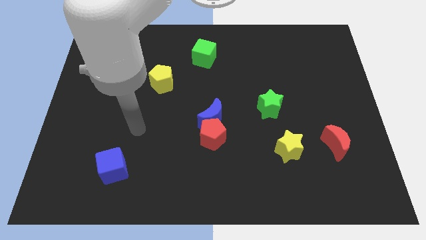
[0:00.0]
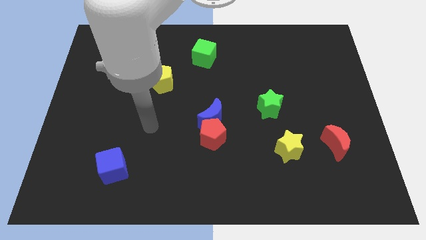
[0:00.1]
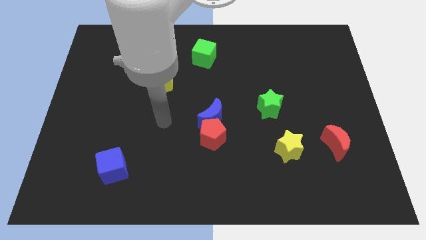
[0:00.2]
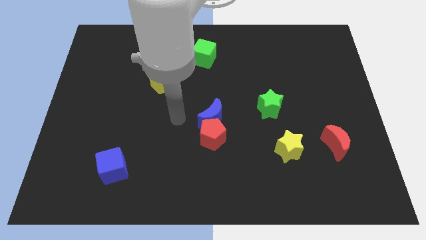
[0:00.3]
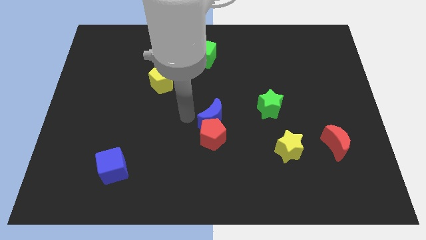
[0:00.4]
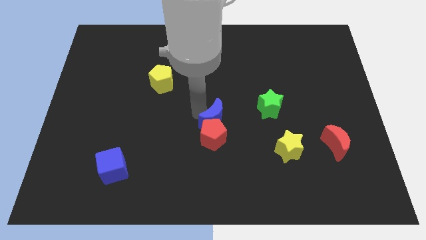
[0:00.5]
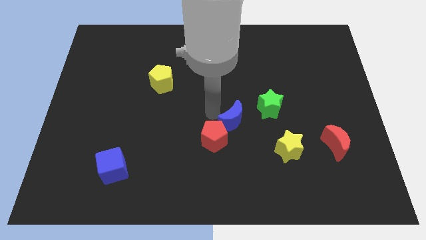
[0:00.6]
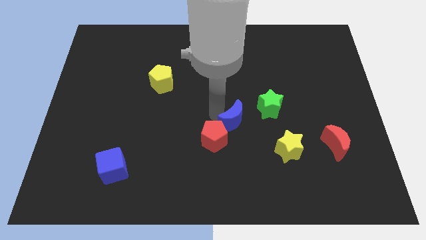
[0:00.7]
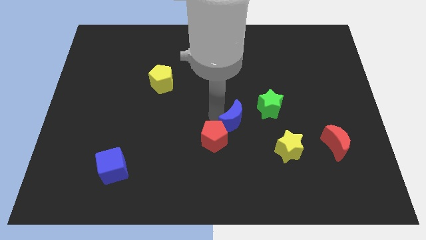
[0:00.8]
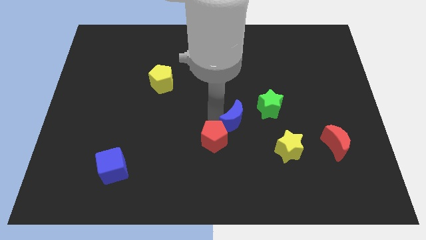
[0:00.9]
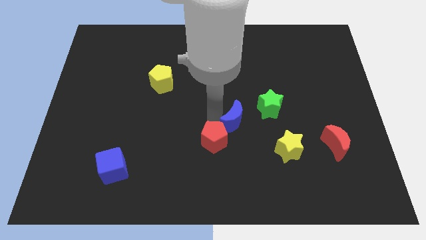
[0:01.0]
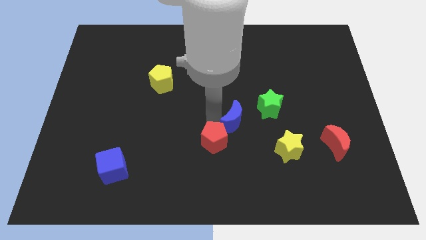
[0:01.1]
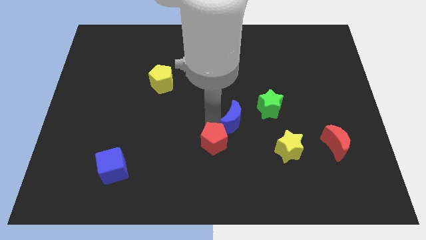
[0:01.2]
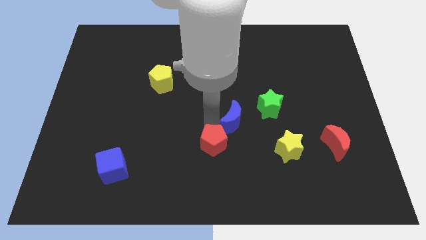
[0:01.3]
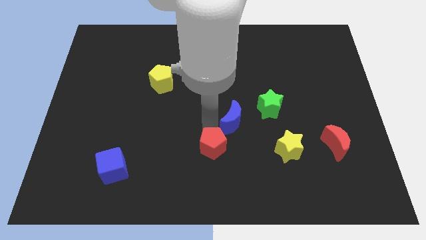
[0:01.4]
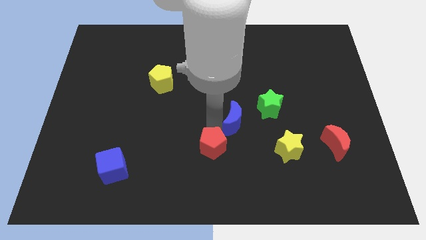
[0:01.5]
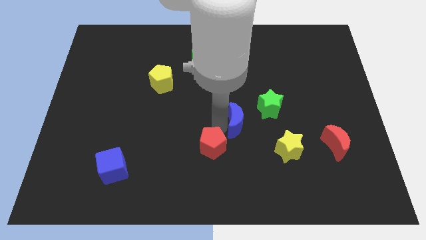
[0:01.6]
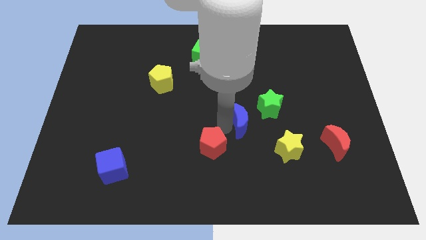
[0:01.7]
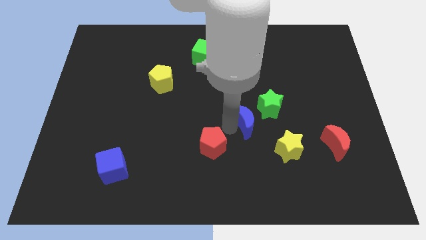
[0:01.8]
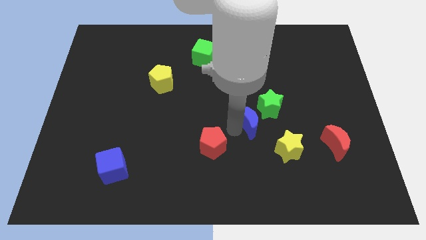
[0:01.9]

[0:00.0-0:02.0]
move the red pentagon away from the blue moon

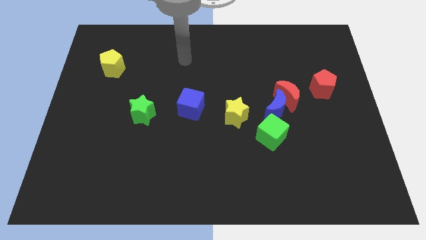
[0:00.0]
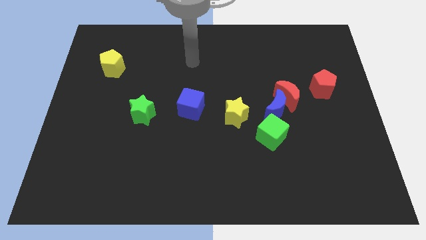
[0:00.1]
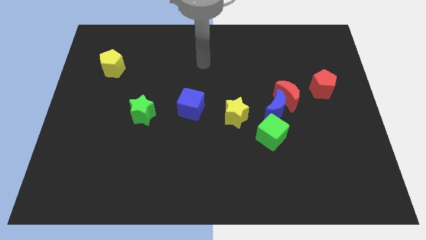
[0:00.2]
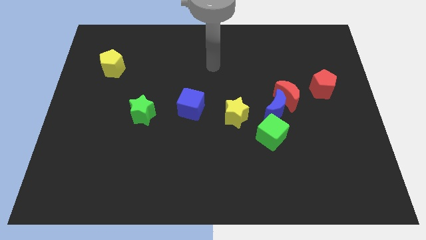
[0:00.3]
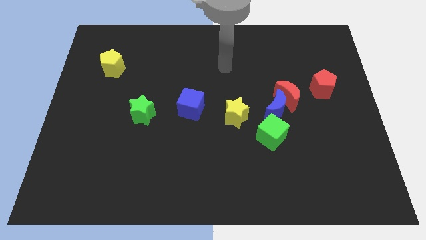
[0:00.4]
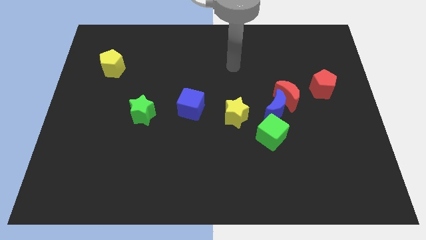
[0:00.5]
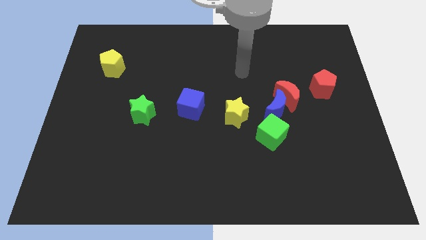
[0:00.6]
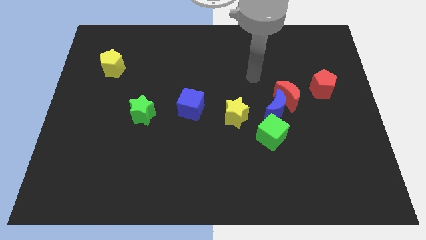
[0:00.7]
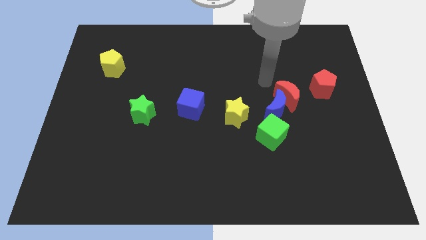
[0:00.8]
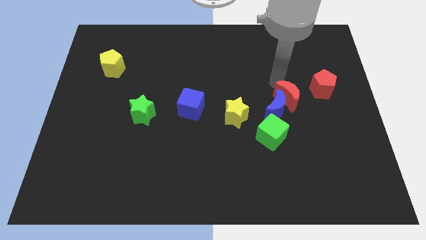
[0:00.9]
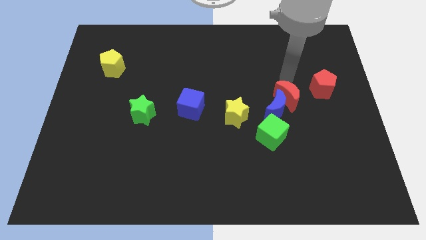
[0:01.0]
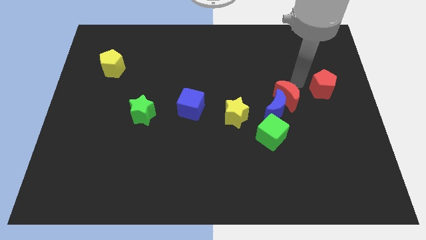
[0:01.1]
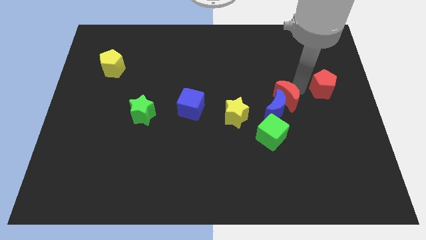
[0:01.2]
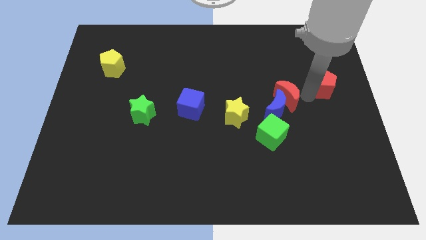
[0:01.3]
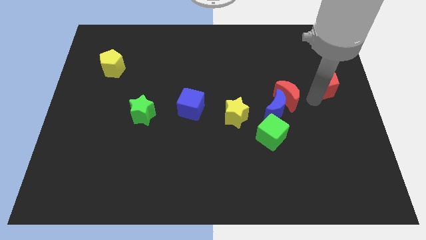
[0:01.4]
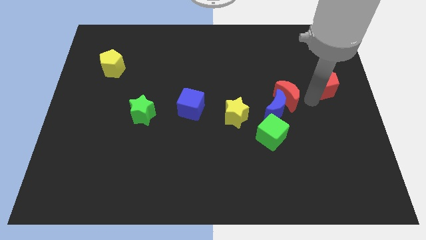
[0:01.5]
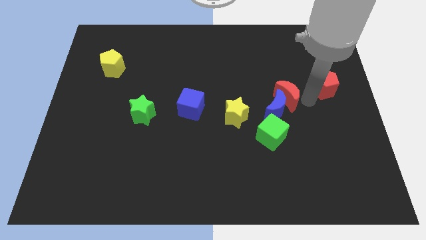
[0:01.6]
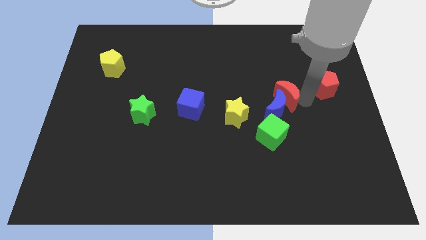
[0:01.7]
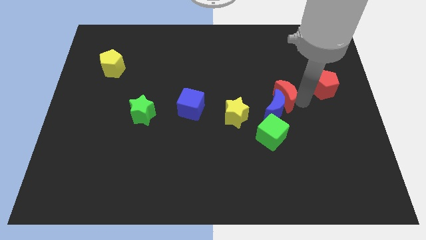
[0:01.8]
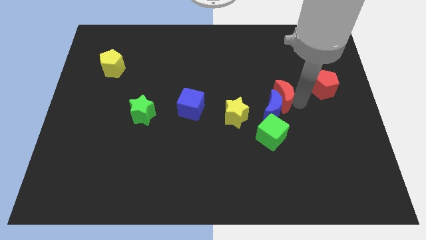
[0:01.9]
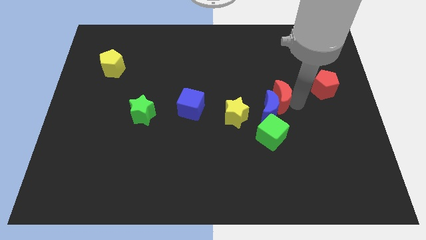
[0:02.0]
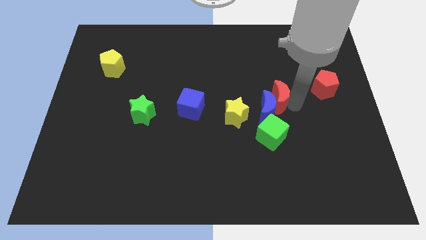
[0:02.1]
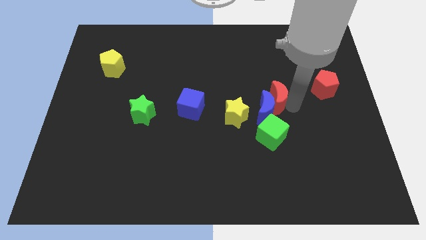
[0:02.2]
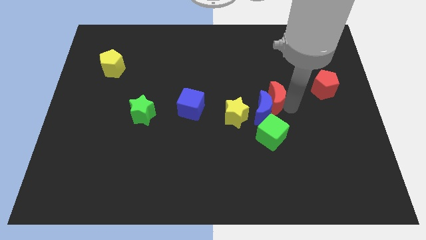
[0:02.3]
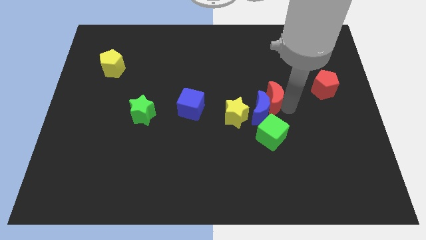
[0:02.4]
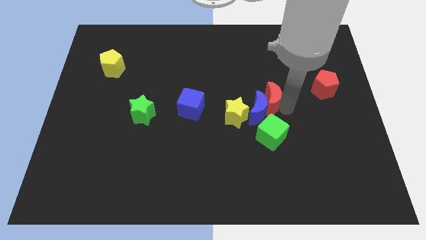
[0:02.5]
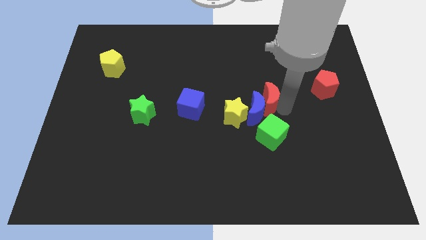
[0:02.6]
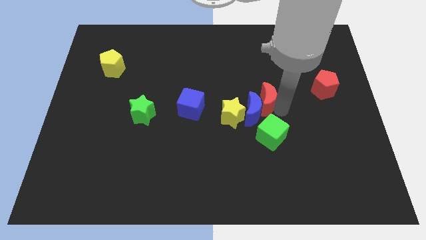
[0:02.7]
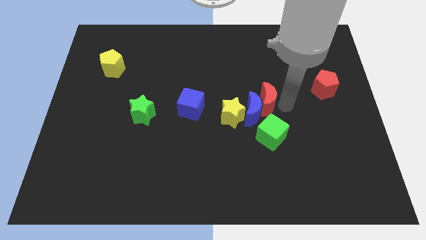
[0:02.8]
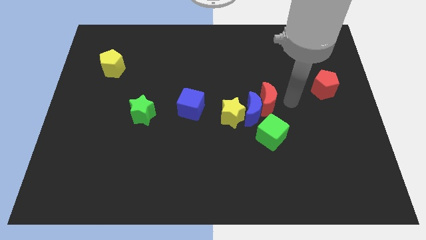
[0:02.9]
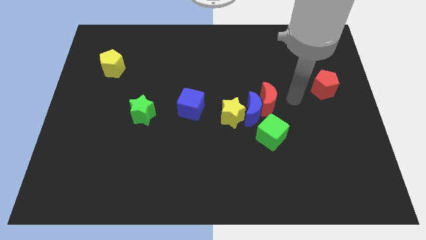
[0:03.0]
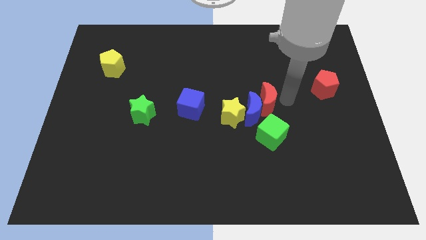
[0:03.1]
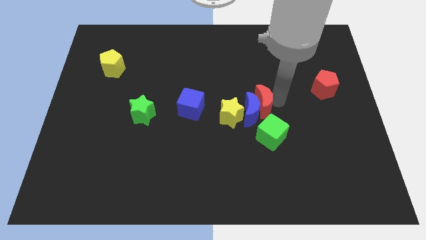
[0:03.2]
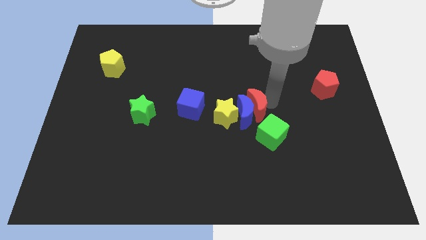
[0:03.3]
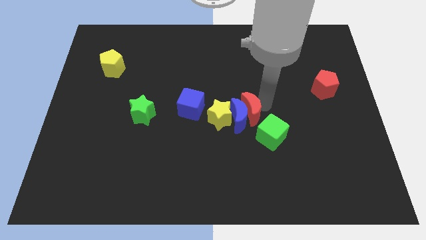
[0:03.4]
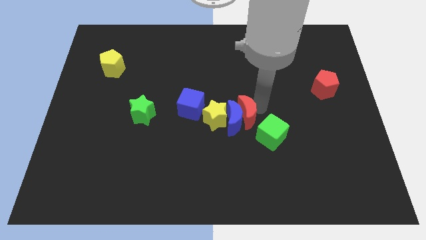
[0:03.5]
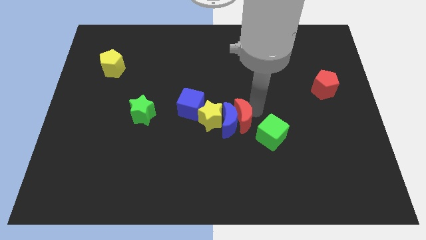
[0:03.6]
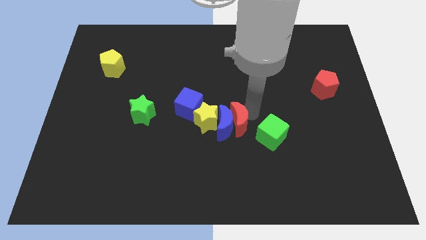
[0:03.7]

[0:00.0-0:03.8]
move the red moon away from the blue moon and red pentagon

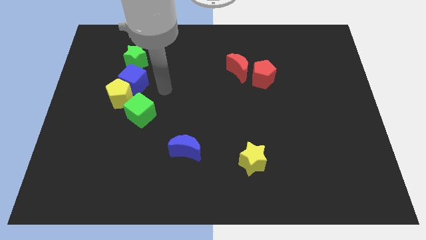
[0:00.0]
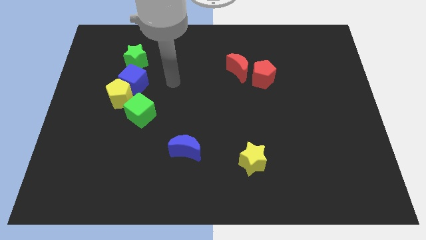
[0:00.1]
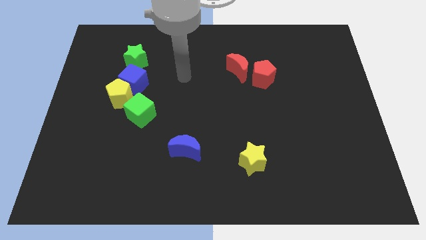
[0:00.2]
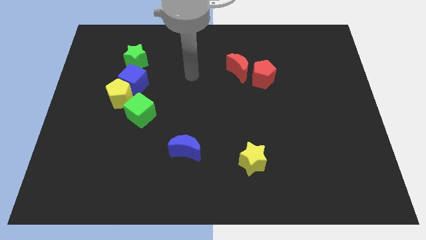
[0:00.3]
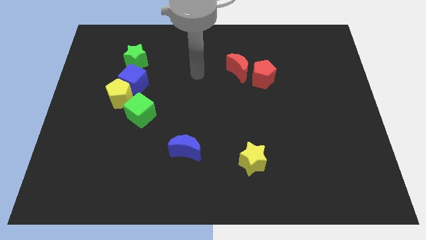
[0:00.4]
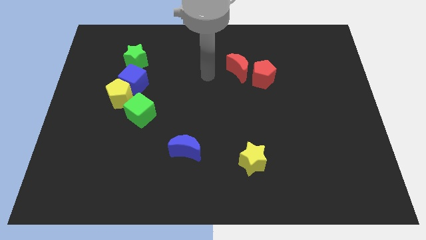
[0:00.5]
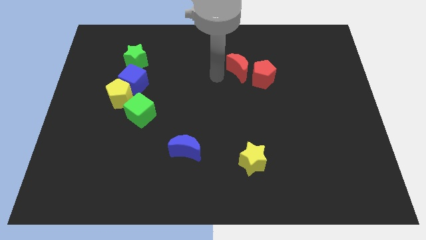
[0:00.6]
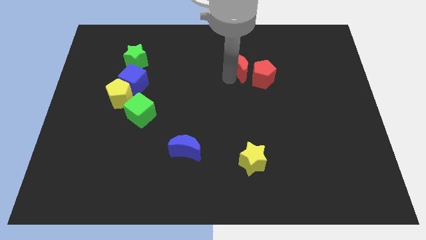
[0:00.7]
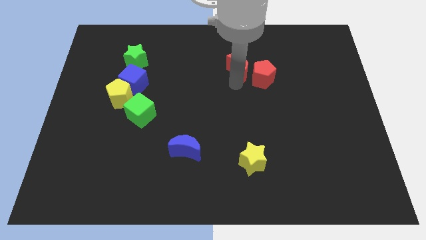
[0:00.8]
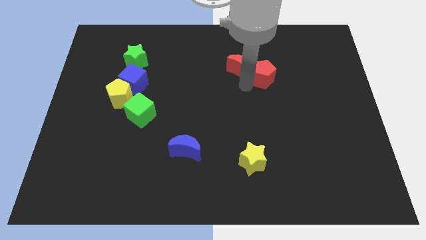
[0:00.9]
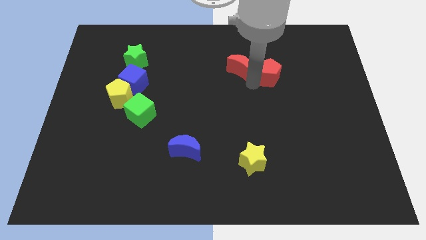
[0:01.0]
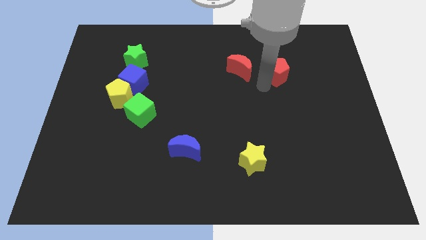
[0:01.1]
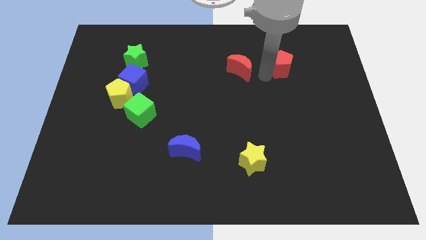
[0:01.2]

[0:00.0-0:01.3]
pull the red moon apart from the red pentagon

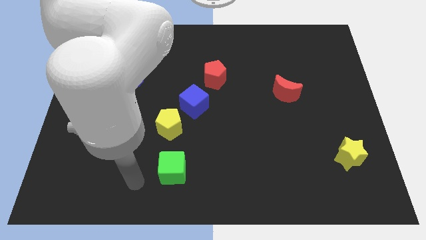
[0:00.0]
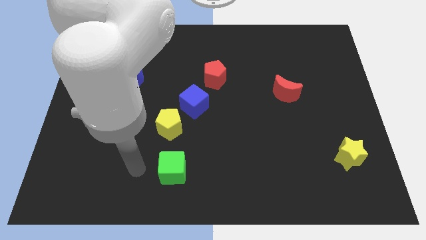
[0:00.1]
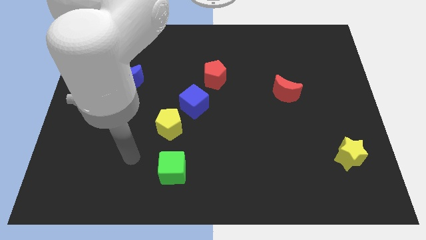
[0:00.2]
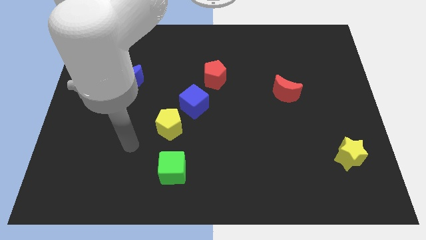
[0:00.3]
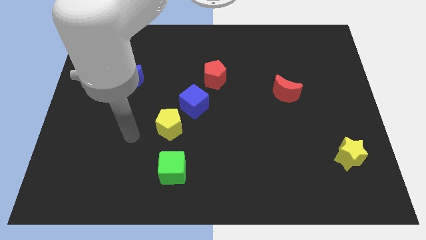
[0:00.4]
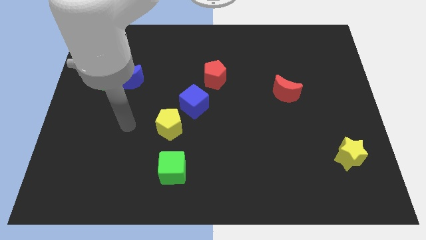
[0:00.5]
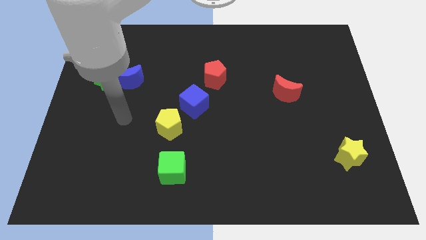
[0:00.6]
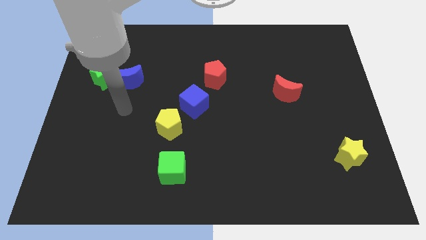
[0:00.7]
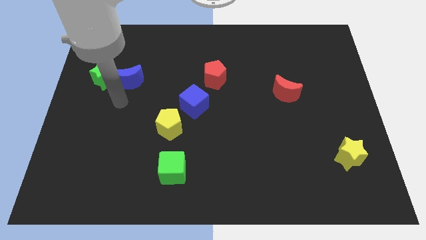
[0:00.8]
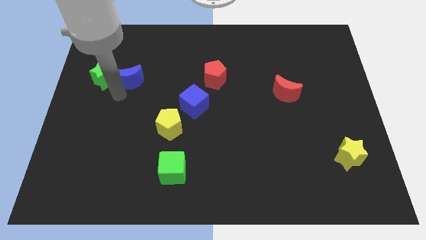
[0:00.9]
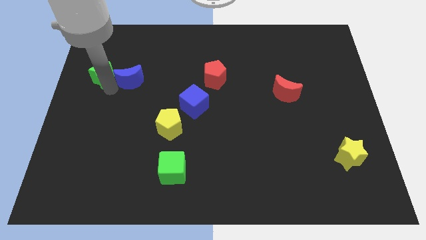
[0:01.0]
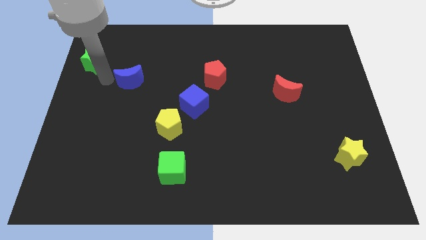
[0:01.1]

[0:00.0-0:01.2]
separate the blue moon from the green star

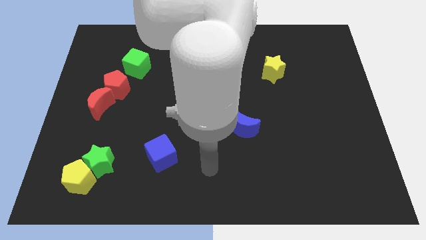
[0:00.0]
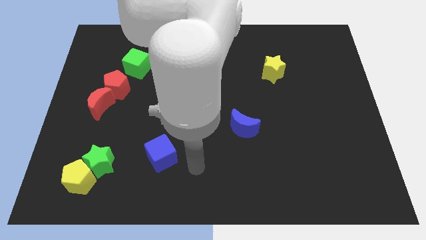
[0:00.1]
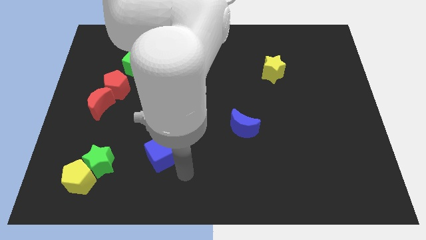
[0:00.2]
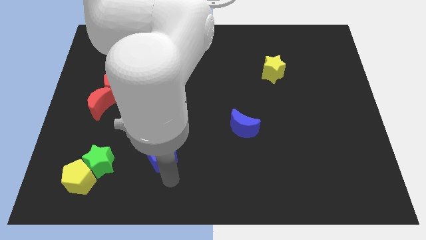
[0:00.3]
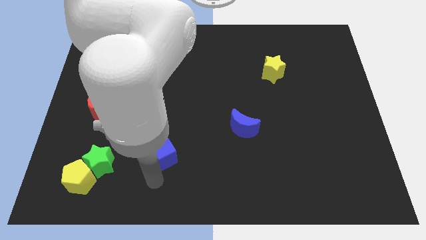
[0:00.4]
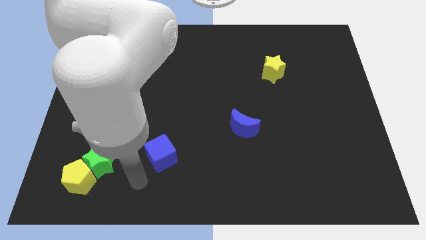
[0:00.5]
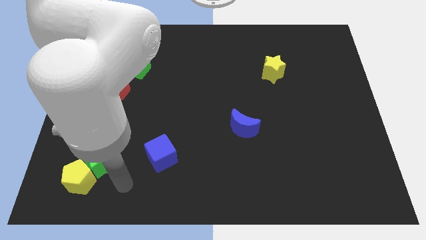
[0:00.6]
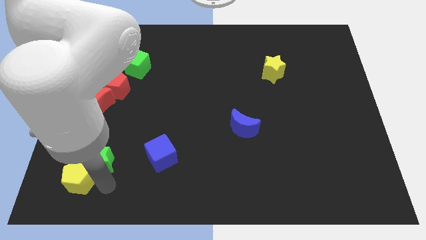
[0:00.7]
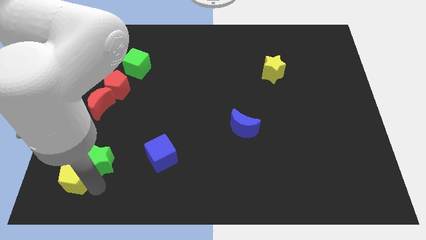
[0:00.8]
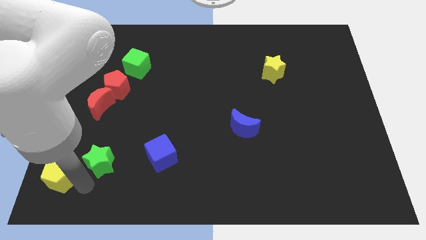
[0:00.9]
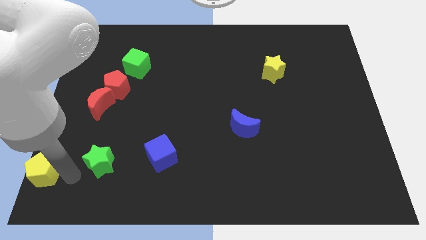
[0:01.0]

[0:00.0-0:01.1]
pull the green star apart from the yellow pentagon
